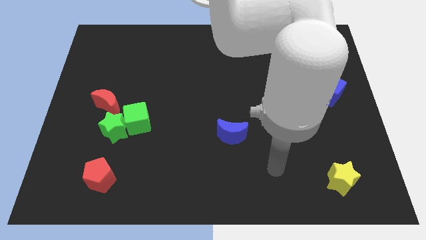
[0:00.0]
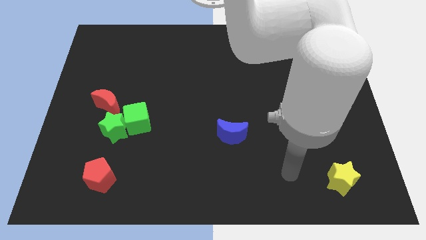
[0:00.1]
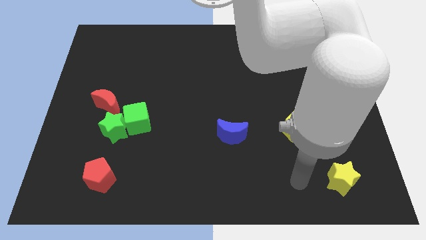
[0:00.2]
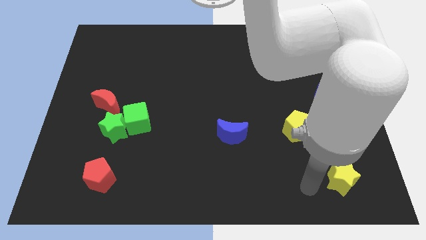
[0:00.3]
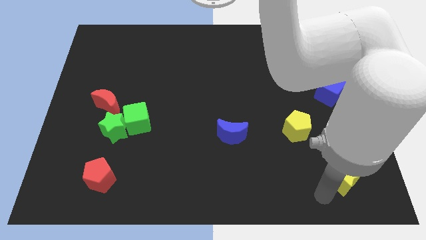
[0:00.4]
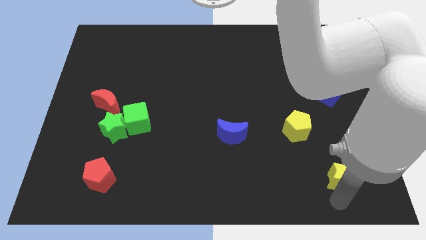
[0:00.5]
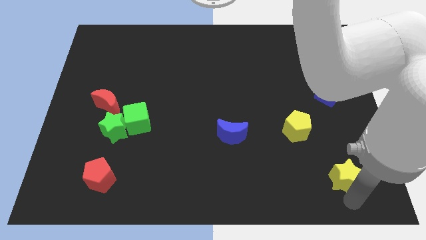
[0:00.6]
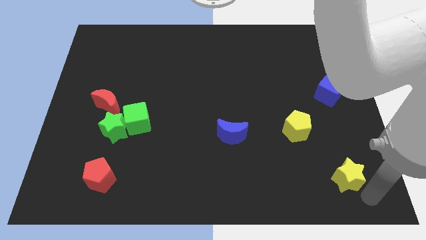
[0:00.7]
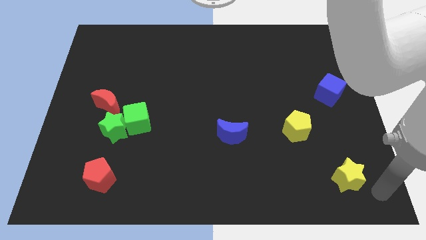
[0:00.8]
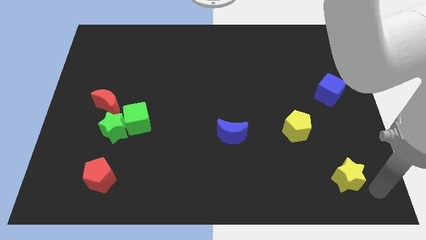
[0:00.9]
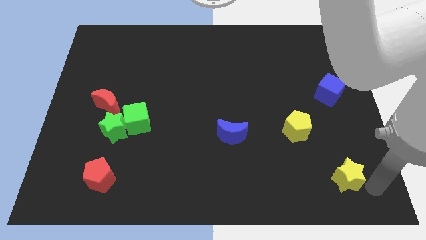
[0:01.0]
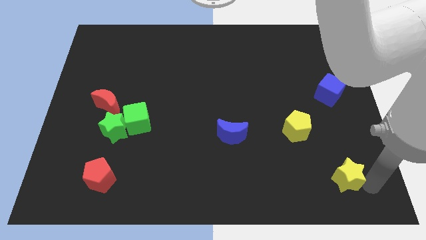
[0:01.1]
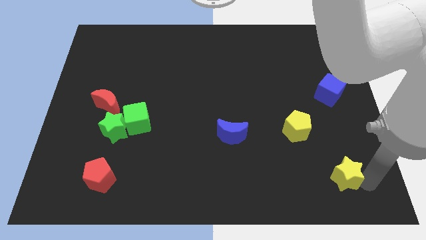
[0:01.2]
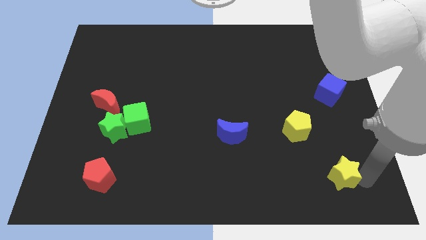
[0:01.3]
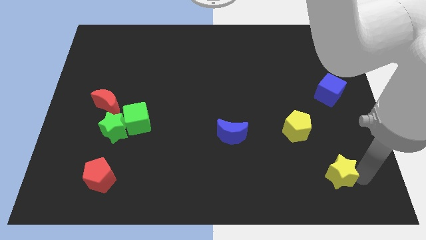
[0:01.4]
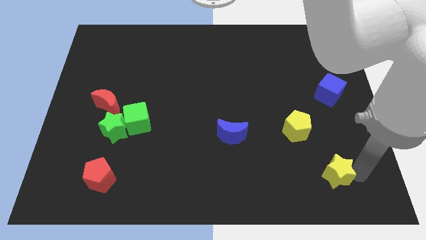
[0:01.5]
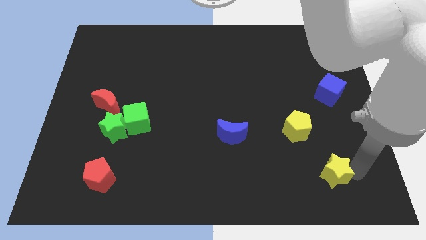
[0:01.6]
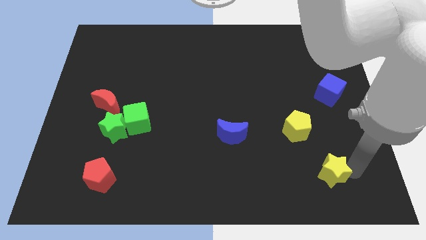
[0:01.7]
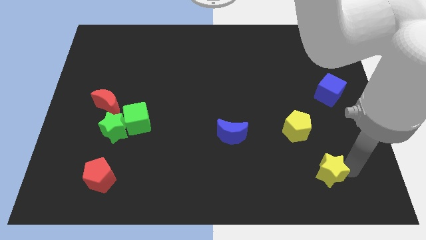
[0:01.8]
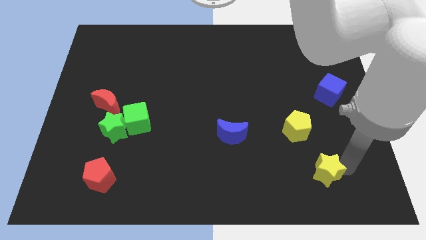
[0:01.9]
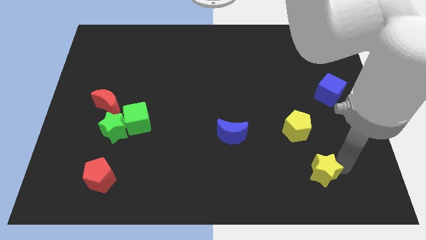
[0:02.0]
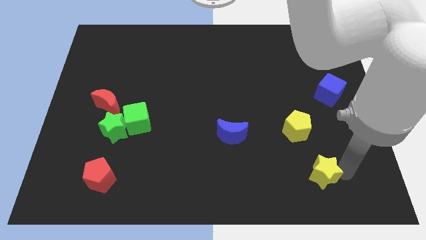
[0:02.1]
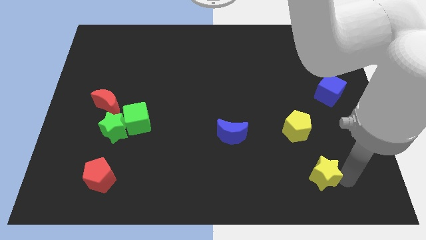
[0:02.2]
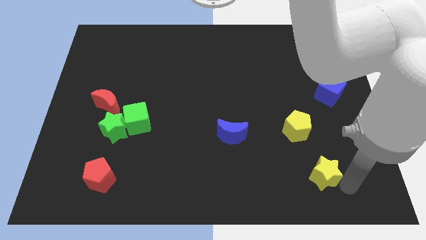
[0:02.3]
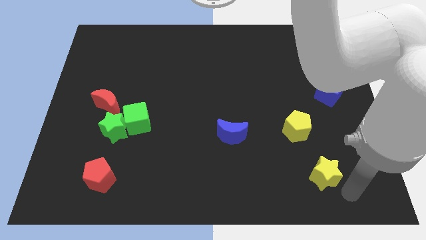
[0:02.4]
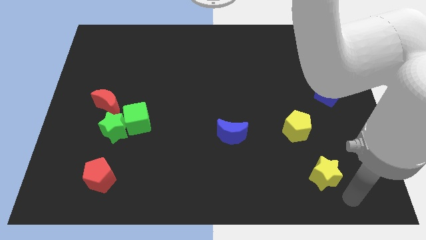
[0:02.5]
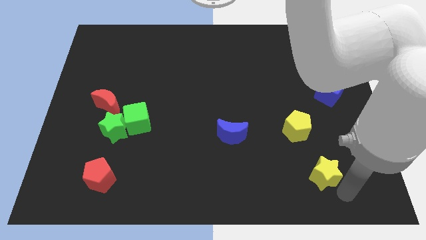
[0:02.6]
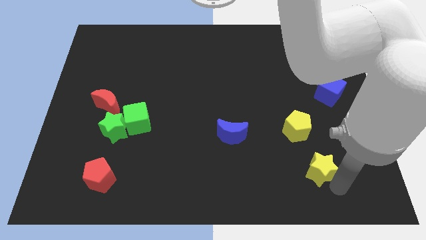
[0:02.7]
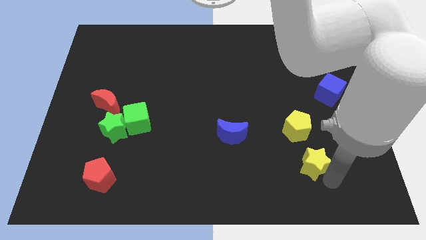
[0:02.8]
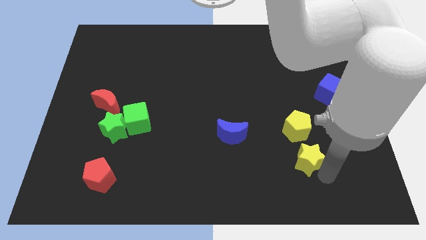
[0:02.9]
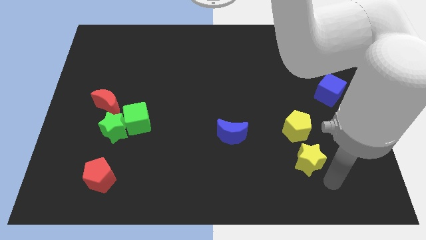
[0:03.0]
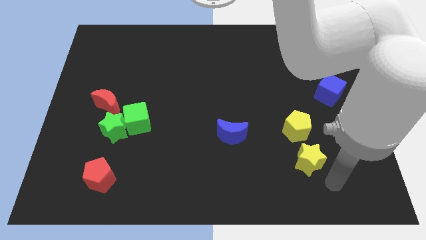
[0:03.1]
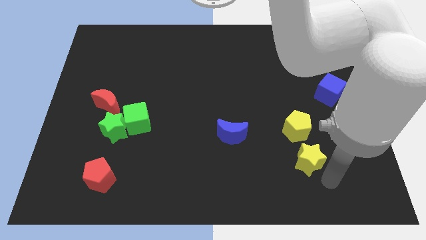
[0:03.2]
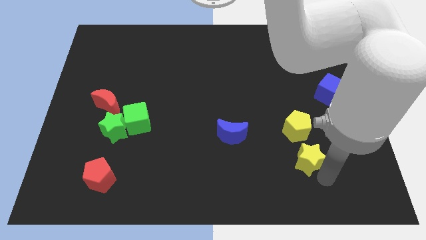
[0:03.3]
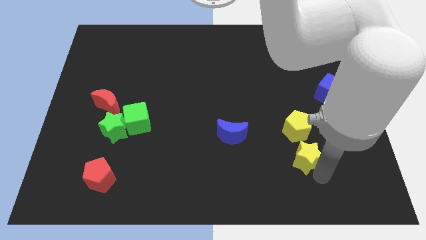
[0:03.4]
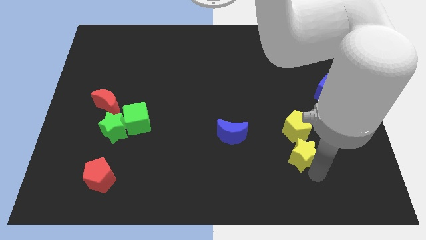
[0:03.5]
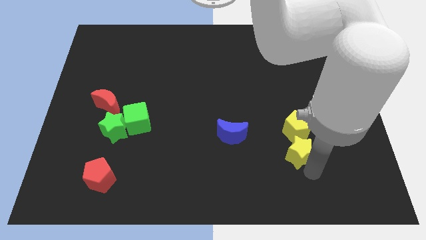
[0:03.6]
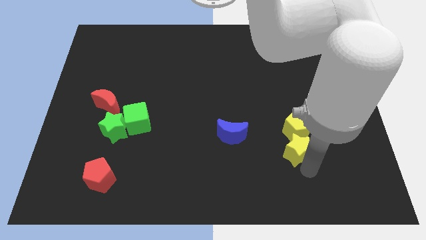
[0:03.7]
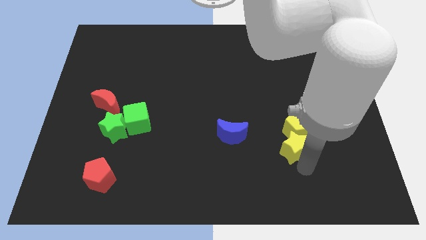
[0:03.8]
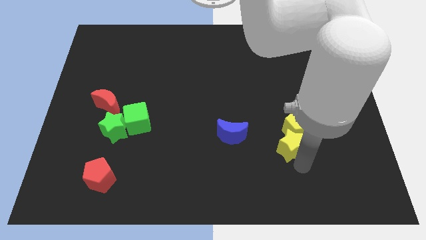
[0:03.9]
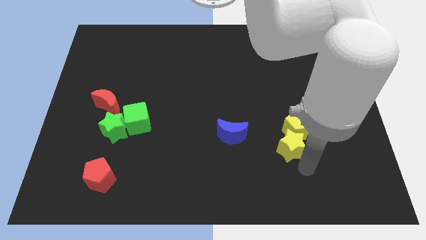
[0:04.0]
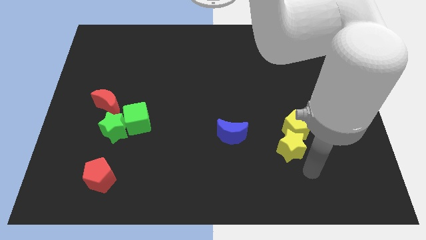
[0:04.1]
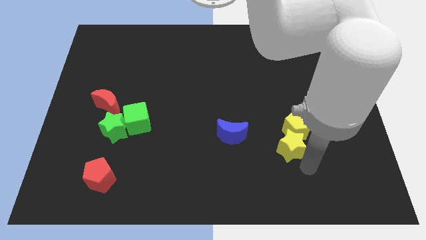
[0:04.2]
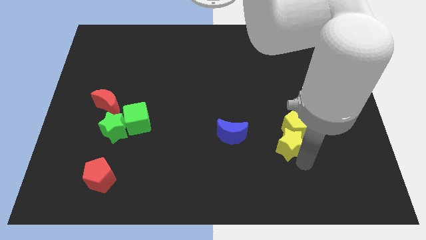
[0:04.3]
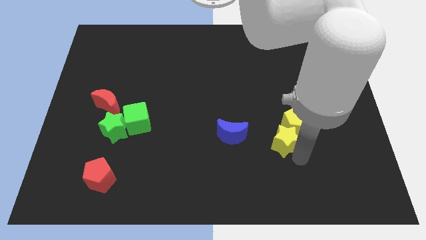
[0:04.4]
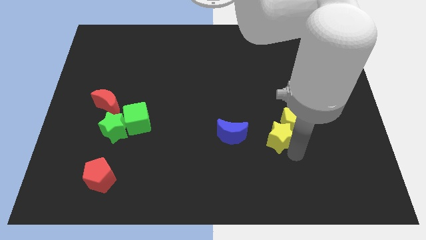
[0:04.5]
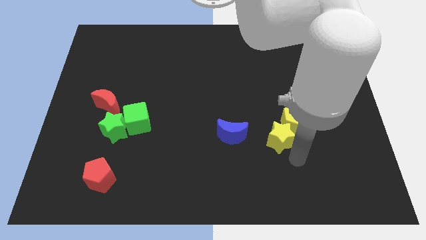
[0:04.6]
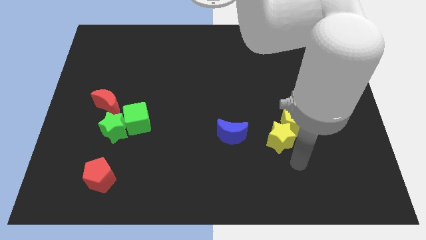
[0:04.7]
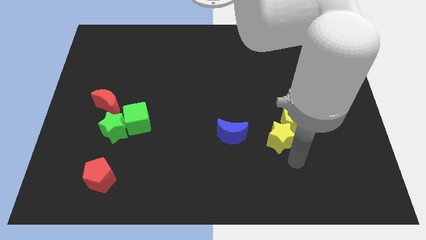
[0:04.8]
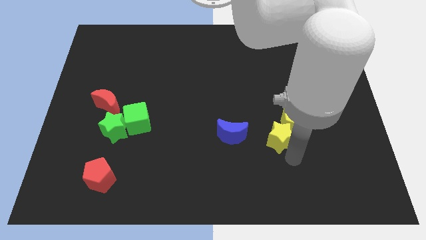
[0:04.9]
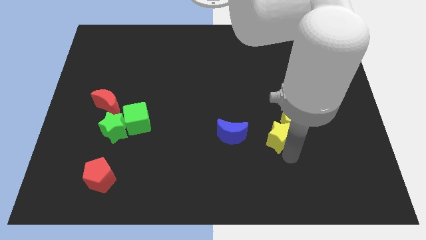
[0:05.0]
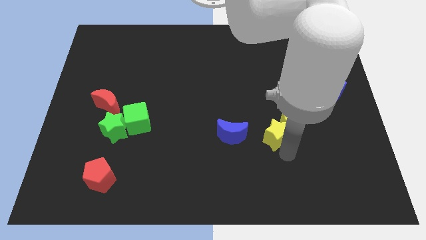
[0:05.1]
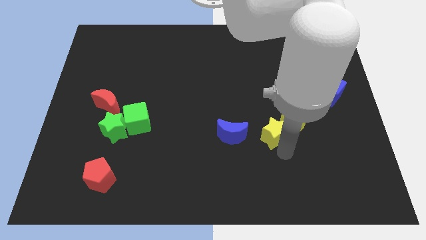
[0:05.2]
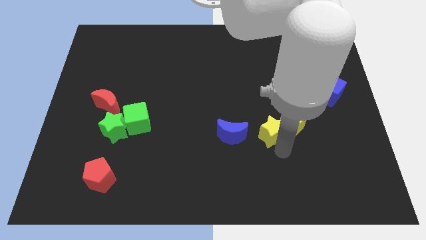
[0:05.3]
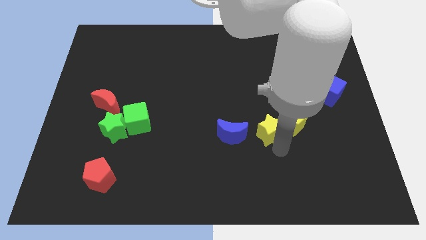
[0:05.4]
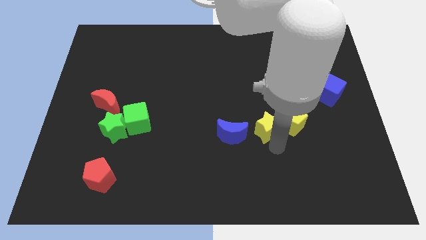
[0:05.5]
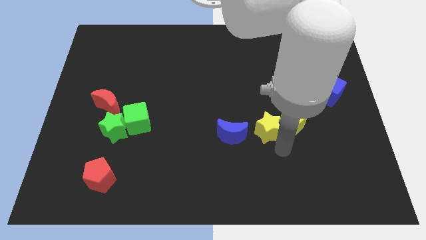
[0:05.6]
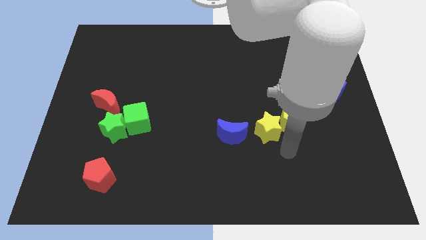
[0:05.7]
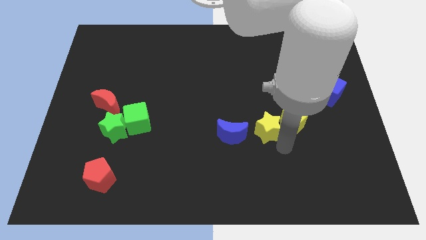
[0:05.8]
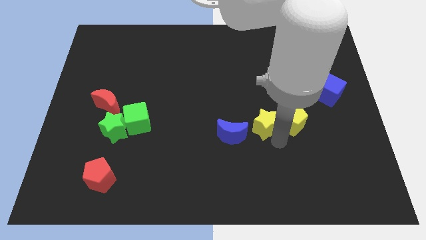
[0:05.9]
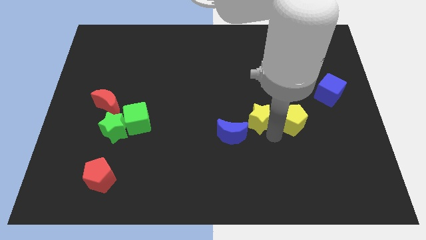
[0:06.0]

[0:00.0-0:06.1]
move the yellow star up and to the left

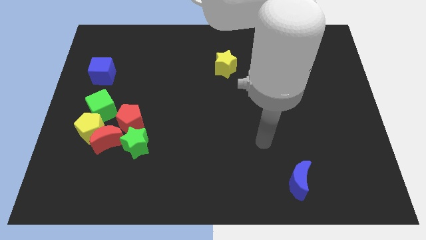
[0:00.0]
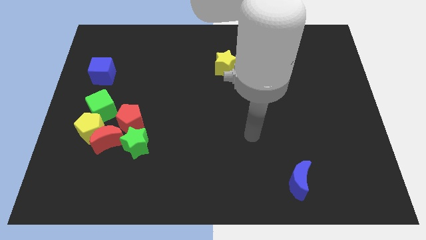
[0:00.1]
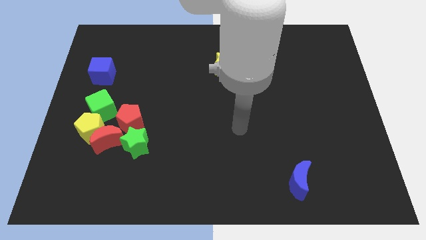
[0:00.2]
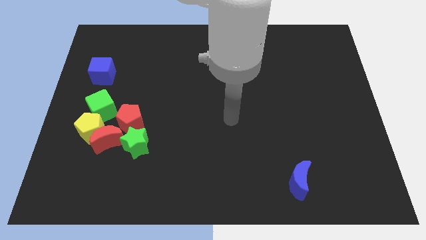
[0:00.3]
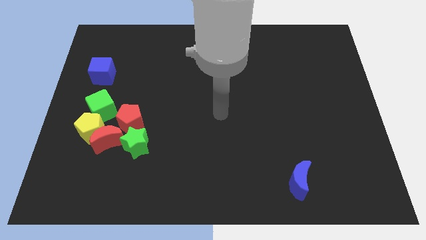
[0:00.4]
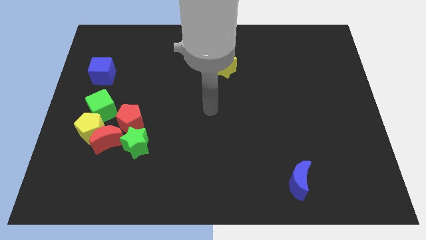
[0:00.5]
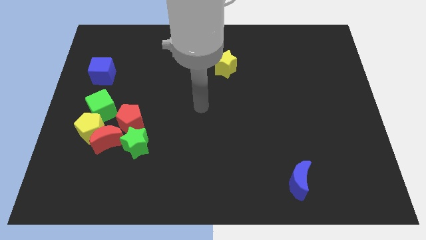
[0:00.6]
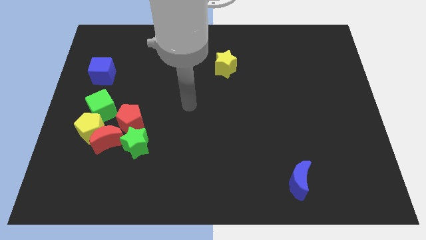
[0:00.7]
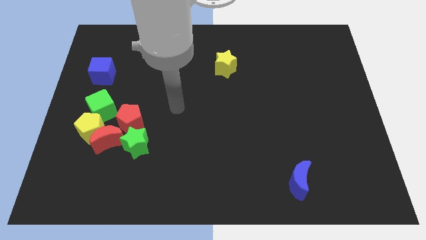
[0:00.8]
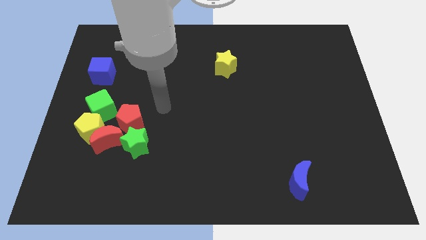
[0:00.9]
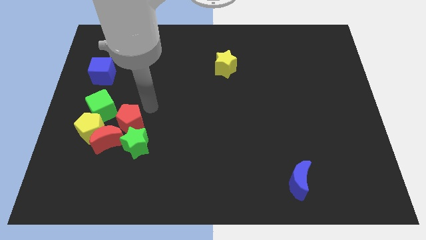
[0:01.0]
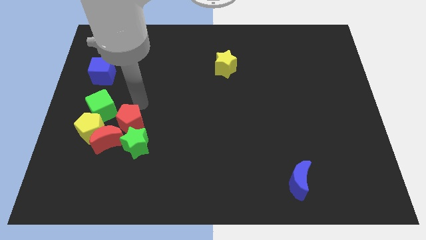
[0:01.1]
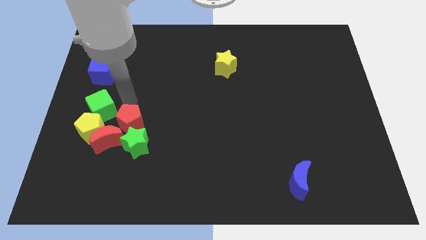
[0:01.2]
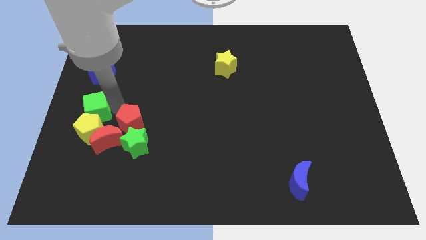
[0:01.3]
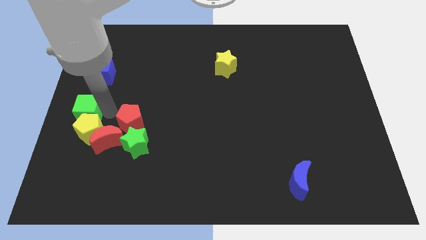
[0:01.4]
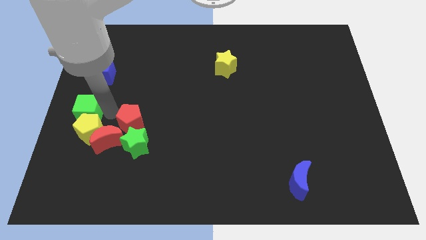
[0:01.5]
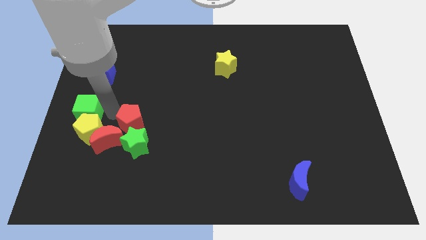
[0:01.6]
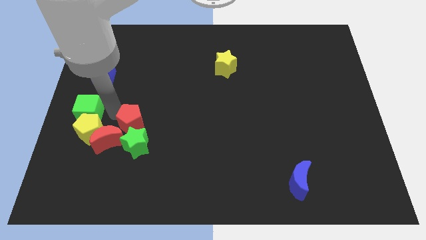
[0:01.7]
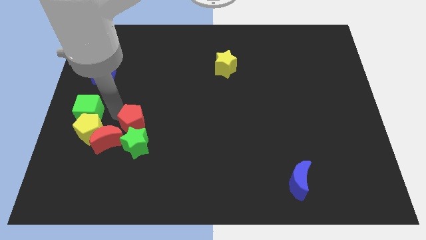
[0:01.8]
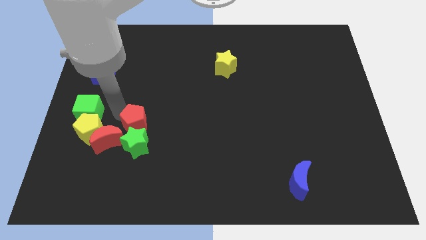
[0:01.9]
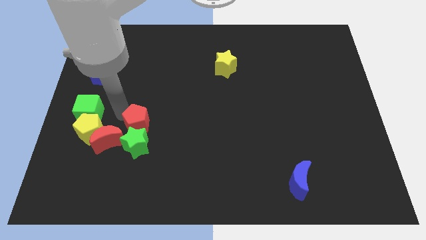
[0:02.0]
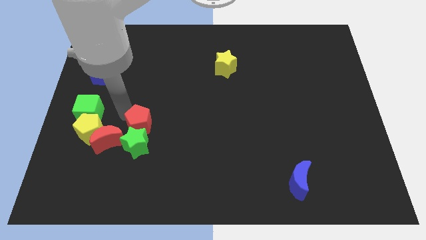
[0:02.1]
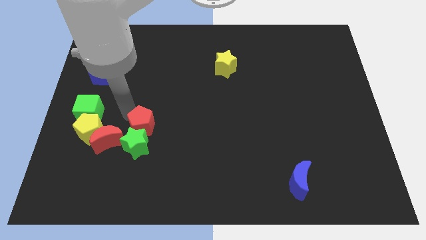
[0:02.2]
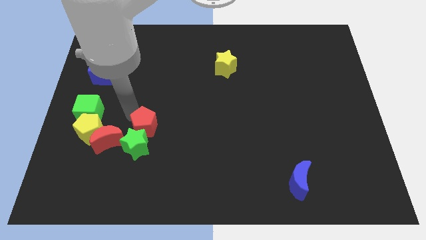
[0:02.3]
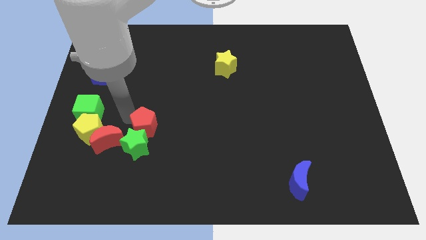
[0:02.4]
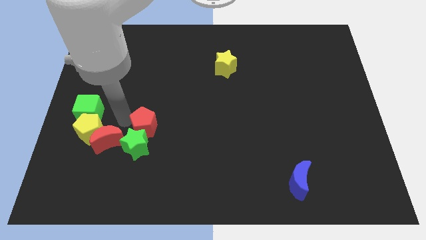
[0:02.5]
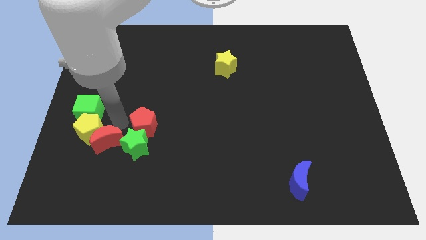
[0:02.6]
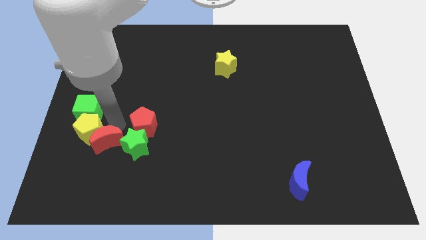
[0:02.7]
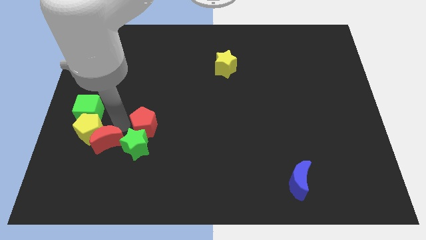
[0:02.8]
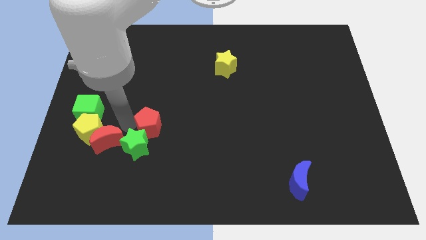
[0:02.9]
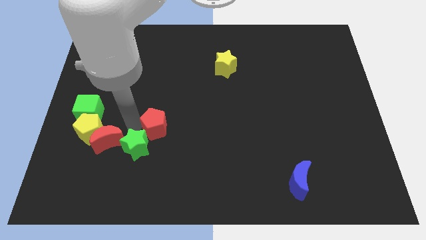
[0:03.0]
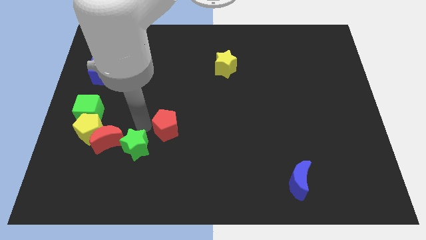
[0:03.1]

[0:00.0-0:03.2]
push the red pentagon slightly to the right
